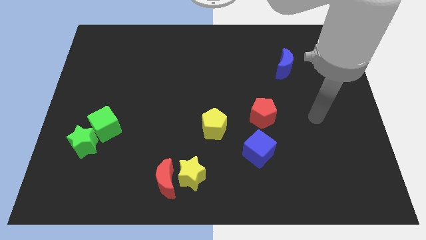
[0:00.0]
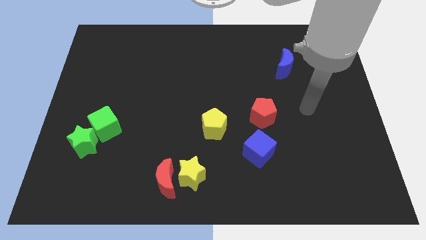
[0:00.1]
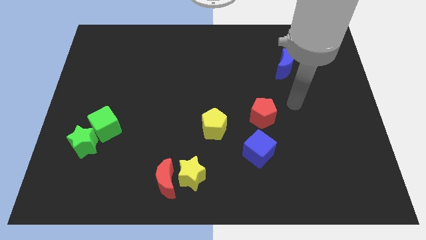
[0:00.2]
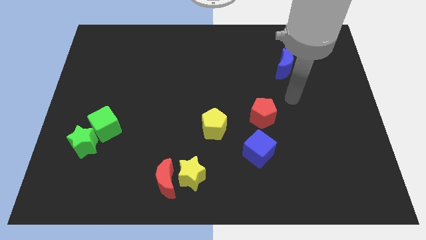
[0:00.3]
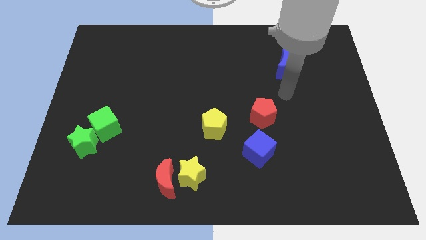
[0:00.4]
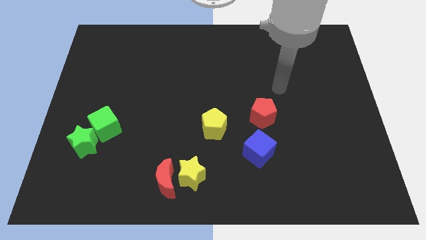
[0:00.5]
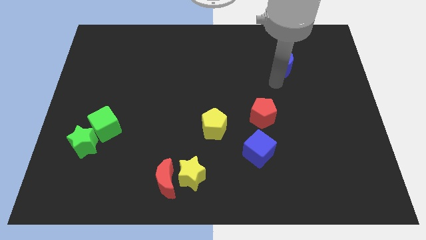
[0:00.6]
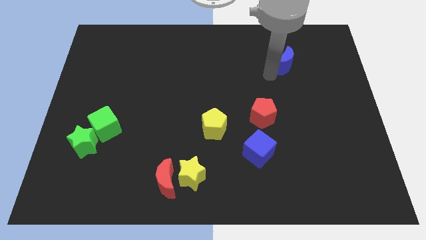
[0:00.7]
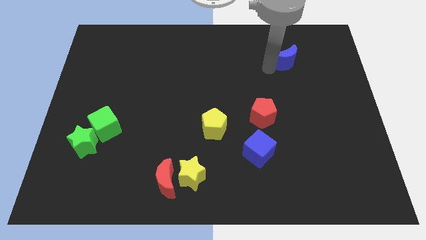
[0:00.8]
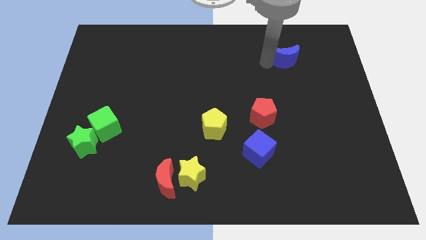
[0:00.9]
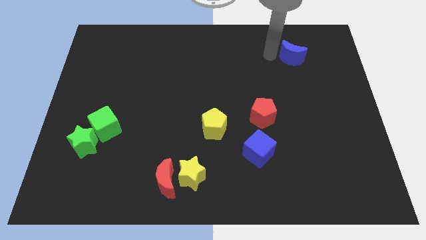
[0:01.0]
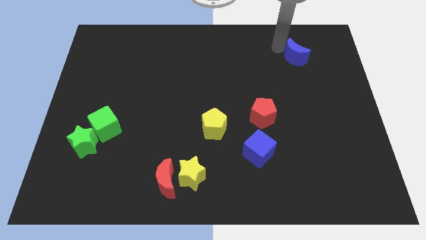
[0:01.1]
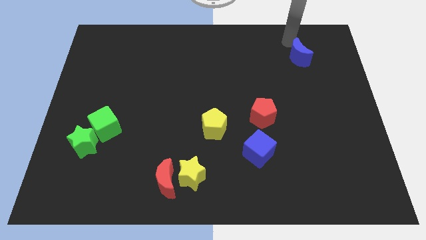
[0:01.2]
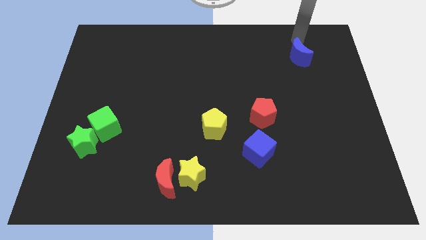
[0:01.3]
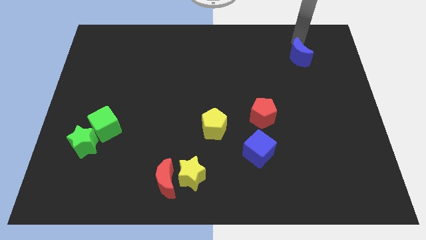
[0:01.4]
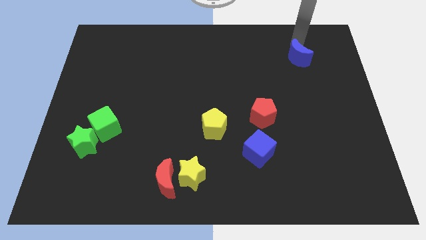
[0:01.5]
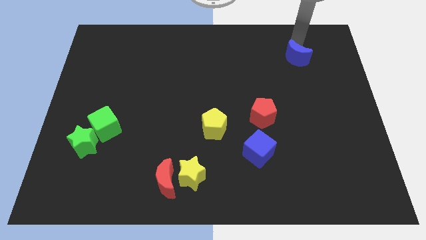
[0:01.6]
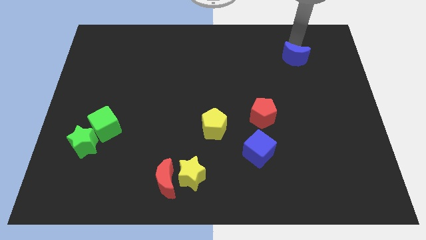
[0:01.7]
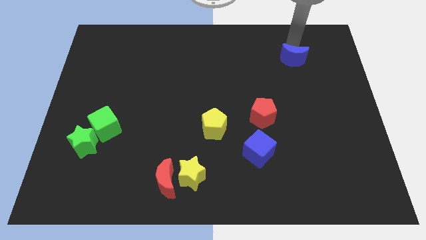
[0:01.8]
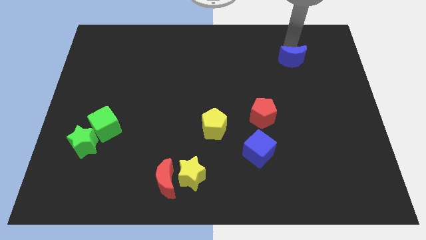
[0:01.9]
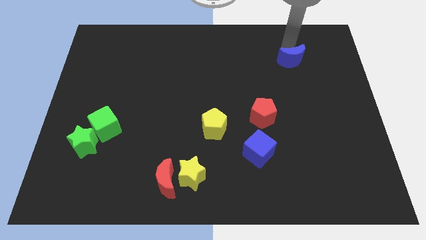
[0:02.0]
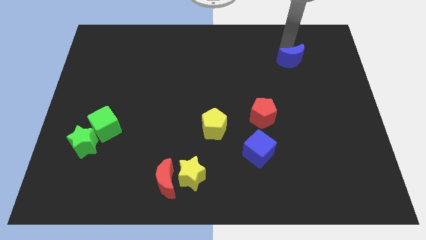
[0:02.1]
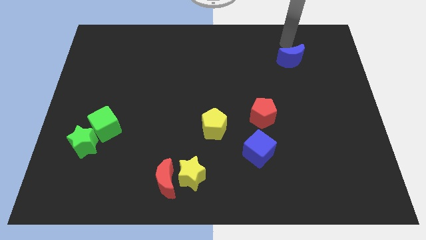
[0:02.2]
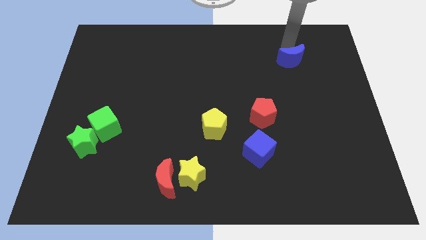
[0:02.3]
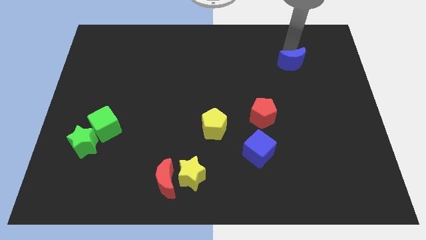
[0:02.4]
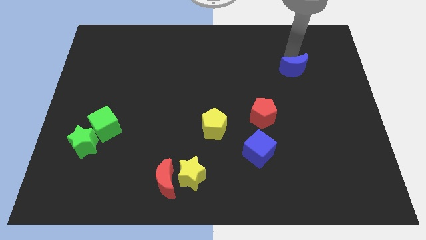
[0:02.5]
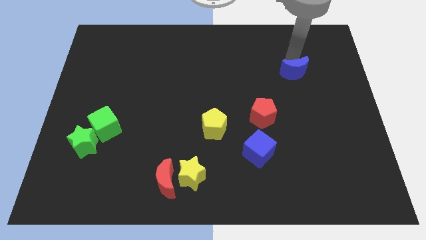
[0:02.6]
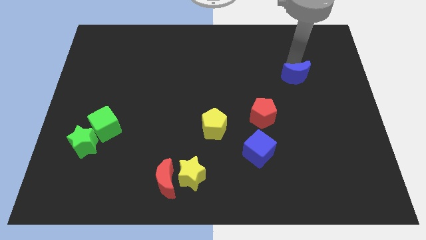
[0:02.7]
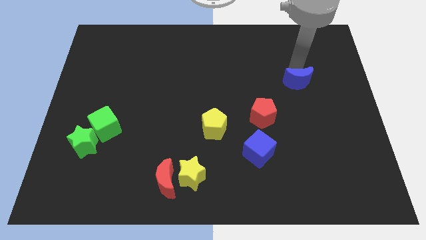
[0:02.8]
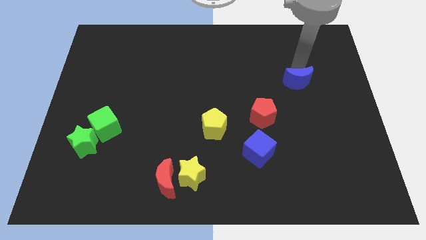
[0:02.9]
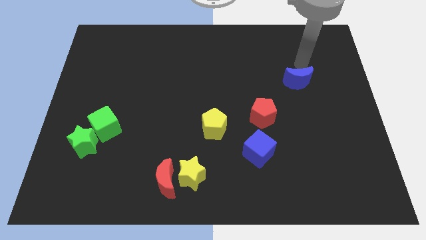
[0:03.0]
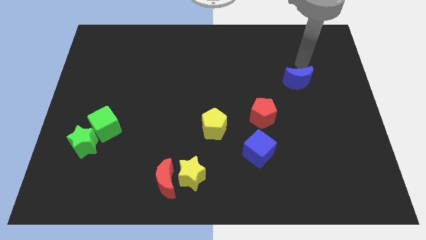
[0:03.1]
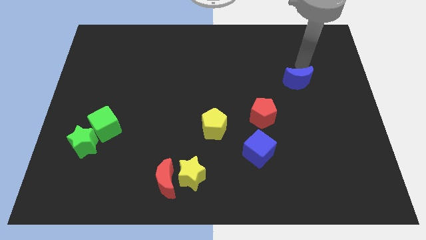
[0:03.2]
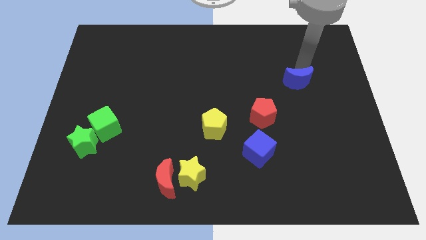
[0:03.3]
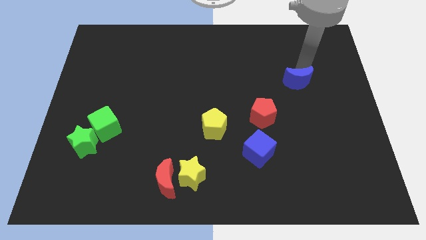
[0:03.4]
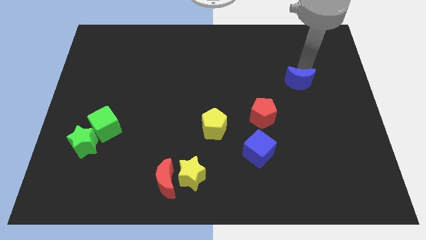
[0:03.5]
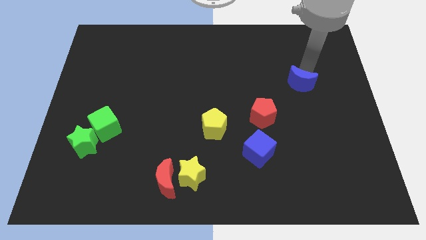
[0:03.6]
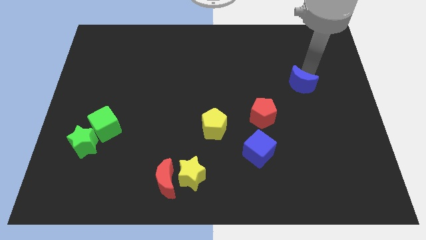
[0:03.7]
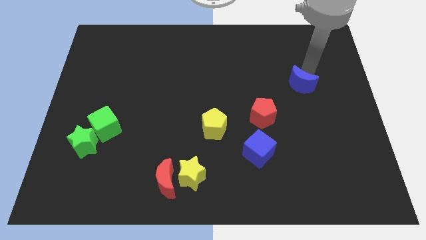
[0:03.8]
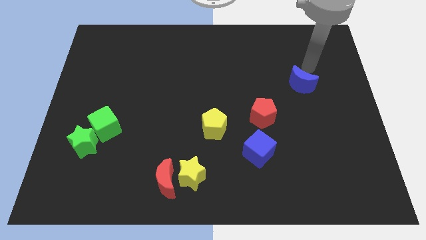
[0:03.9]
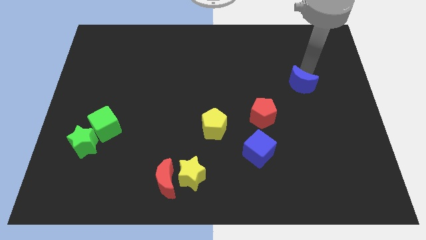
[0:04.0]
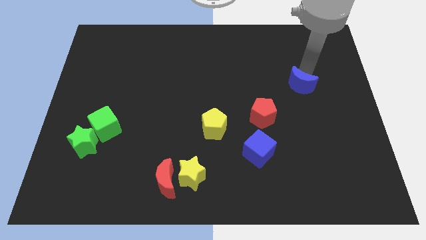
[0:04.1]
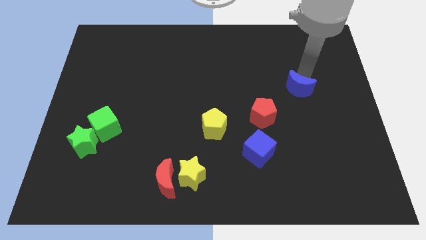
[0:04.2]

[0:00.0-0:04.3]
slightly slide the blue moon downwards

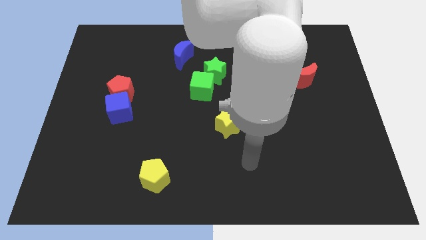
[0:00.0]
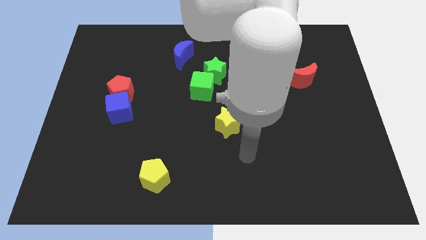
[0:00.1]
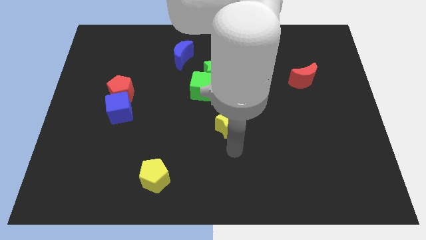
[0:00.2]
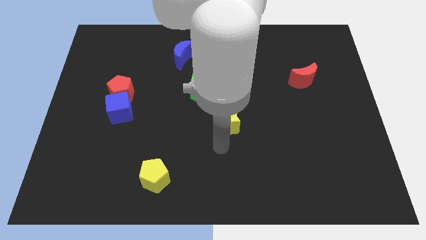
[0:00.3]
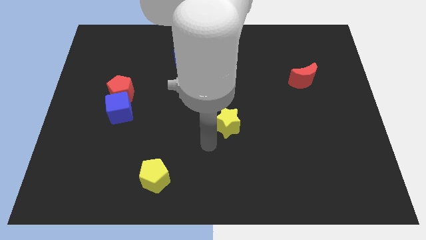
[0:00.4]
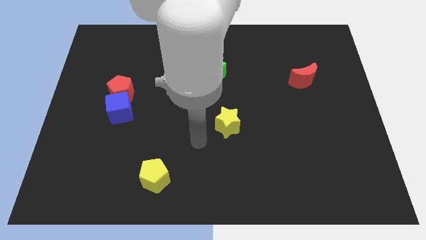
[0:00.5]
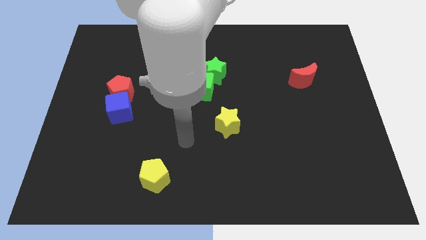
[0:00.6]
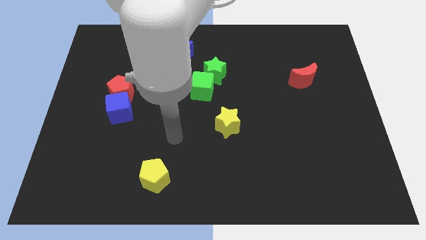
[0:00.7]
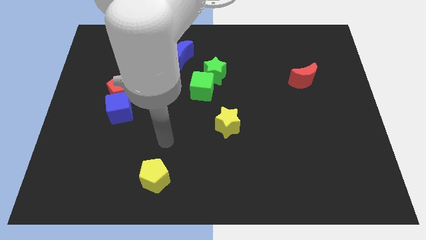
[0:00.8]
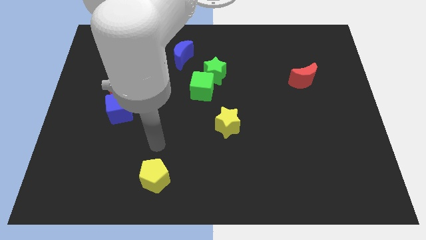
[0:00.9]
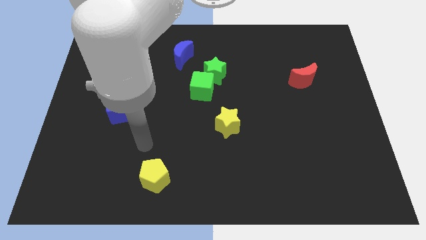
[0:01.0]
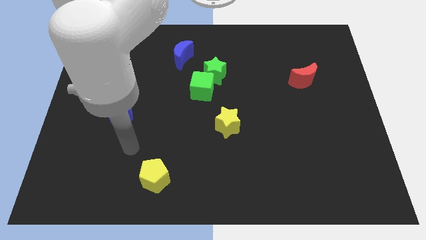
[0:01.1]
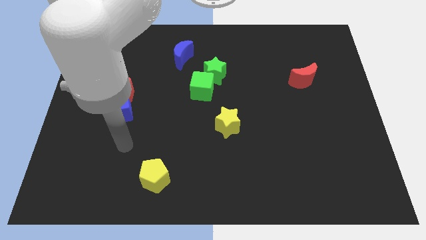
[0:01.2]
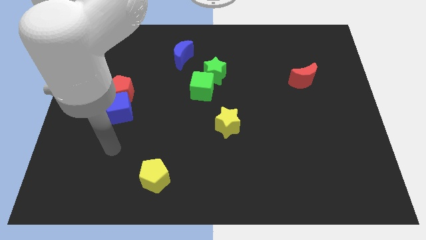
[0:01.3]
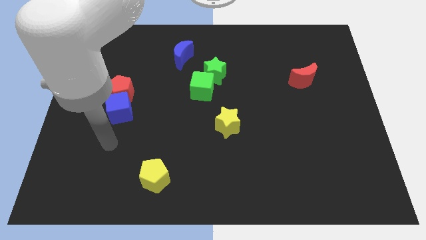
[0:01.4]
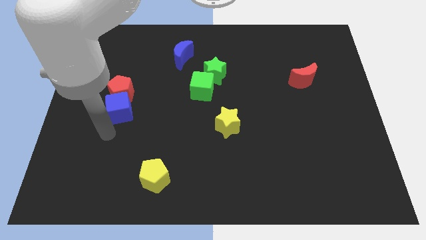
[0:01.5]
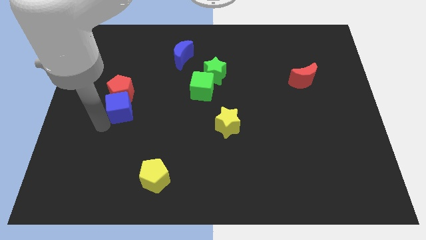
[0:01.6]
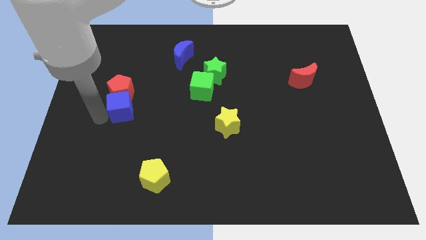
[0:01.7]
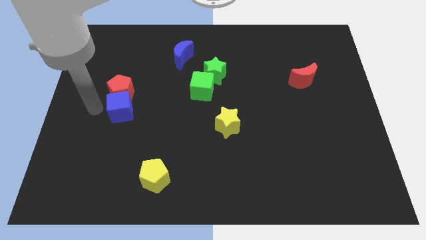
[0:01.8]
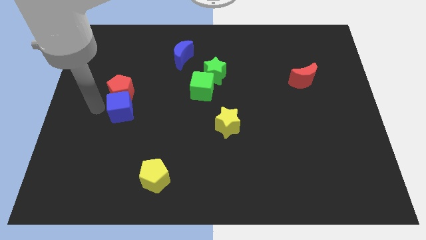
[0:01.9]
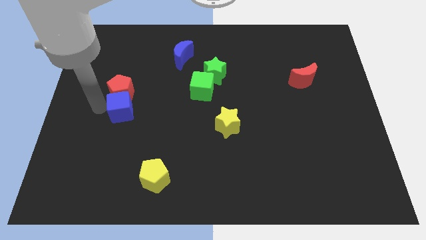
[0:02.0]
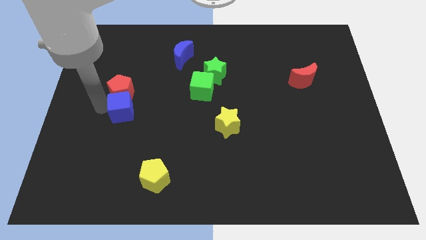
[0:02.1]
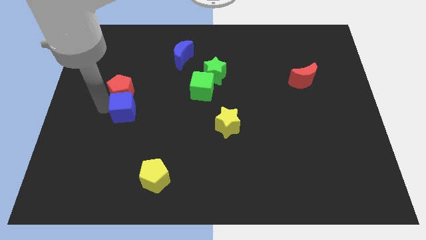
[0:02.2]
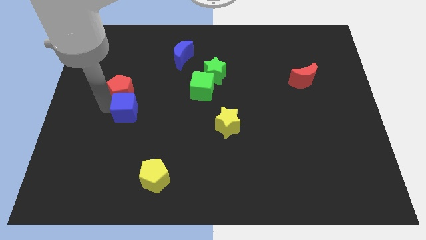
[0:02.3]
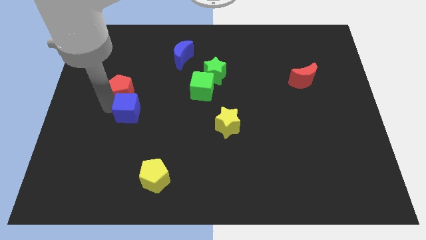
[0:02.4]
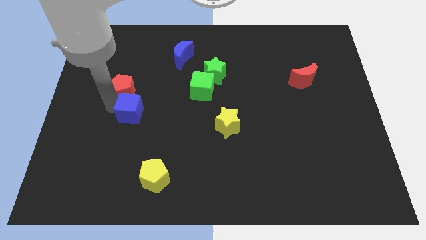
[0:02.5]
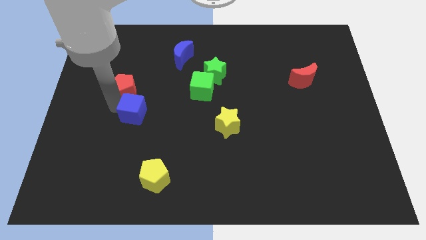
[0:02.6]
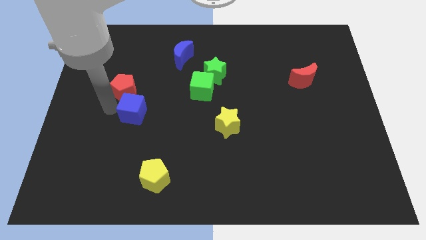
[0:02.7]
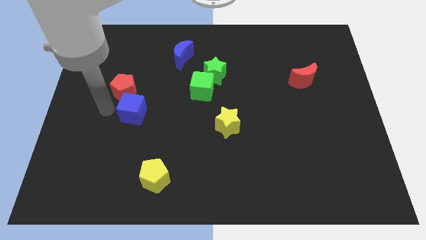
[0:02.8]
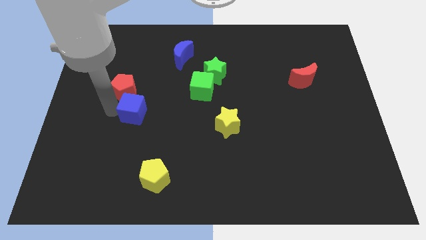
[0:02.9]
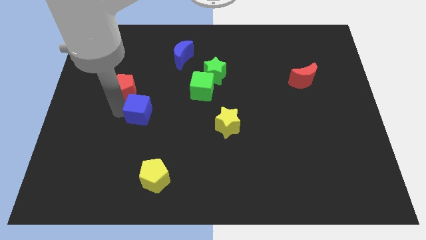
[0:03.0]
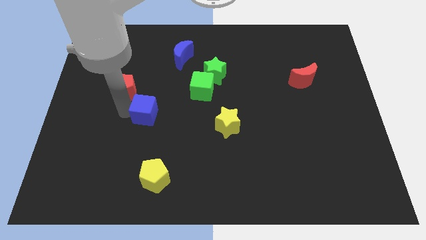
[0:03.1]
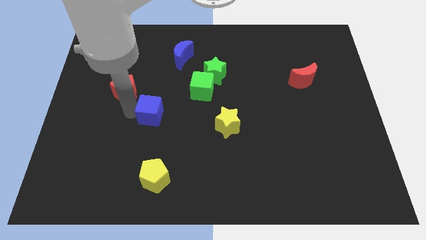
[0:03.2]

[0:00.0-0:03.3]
slide the blue cube slightly to the right

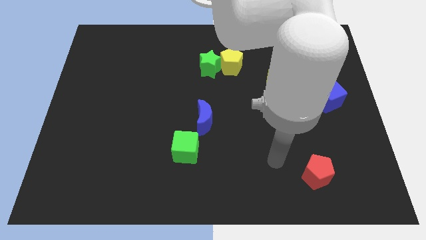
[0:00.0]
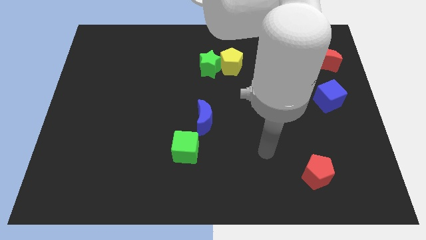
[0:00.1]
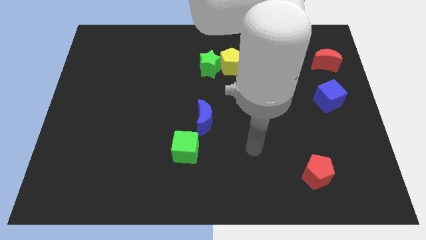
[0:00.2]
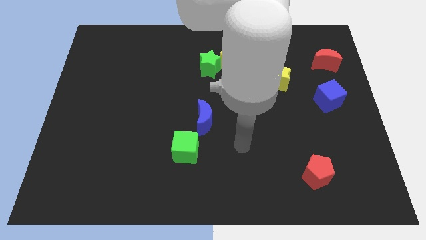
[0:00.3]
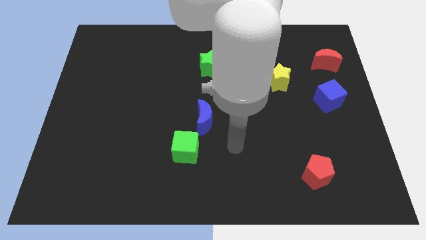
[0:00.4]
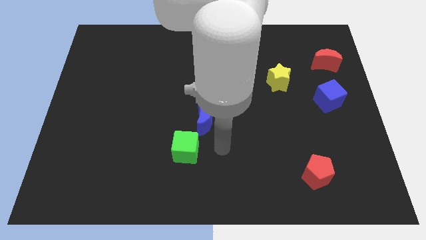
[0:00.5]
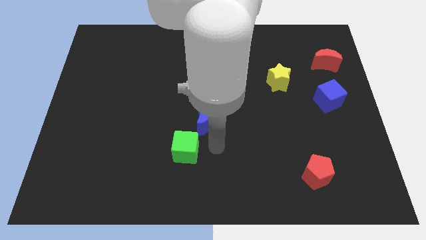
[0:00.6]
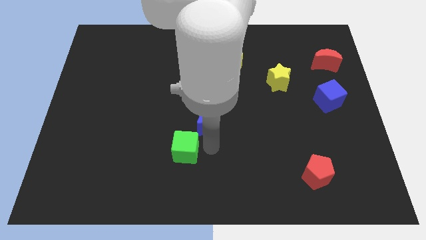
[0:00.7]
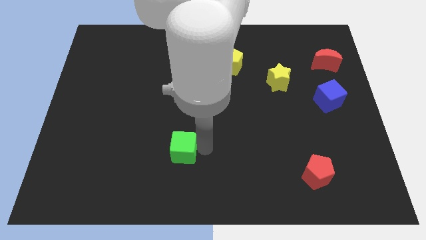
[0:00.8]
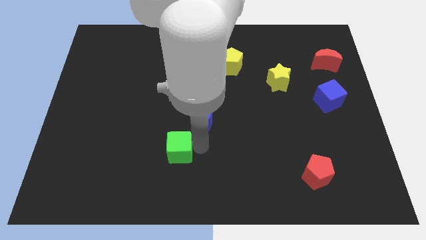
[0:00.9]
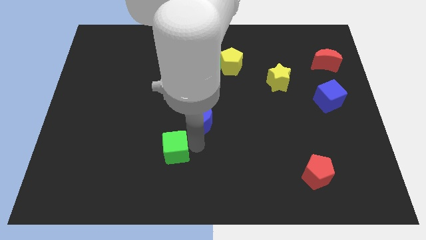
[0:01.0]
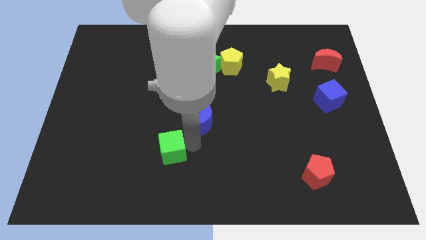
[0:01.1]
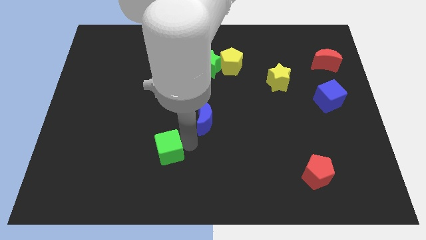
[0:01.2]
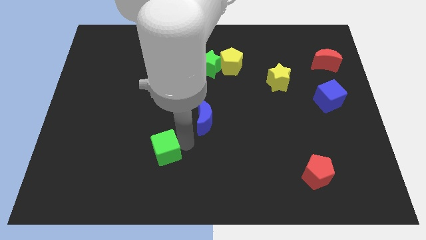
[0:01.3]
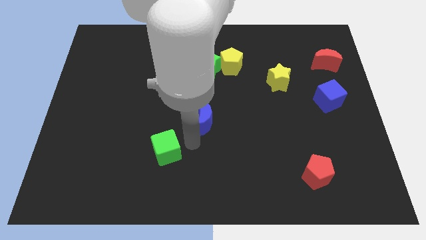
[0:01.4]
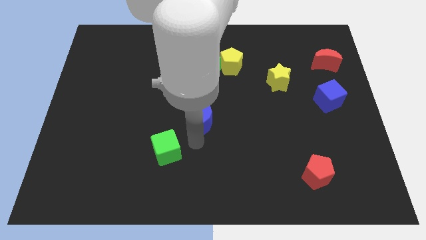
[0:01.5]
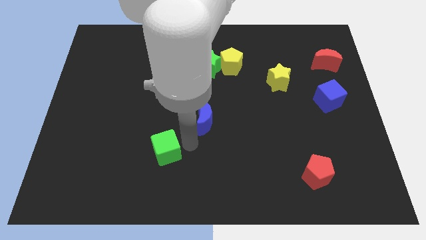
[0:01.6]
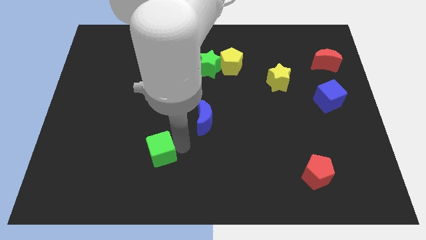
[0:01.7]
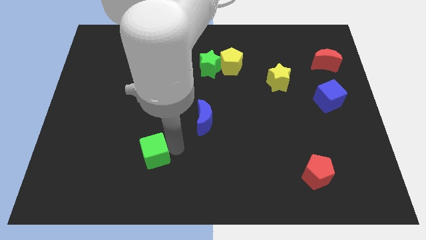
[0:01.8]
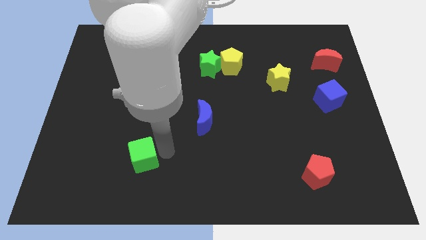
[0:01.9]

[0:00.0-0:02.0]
push the green cube a little bit left
